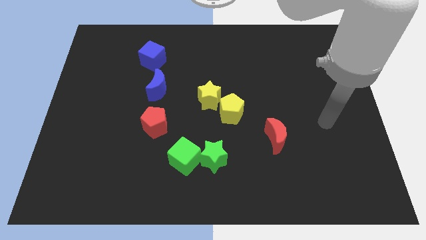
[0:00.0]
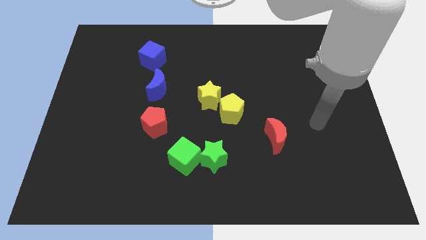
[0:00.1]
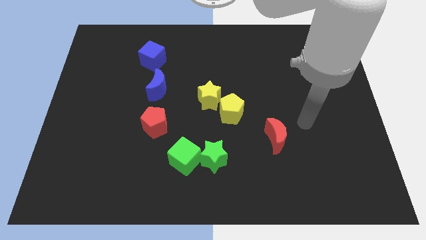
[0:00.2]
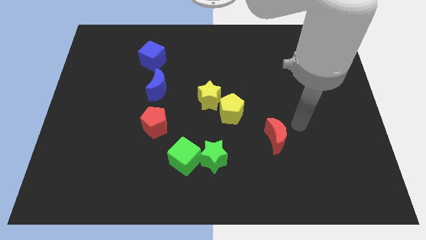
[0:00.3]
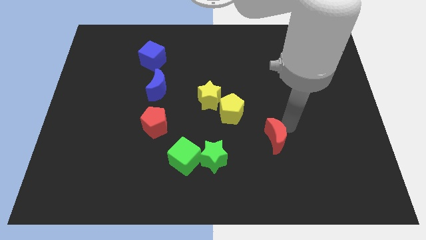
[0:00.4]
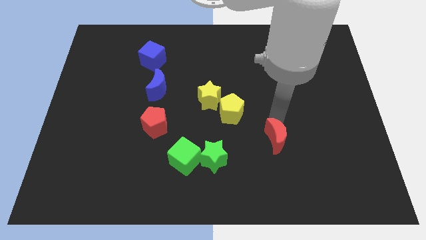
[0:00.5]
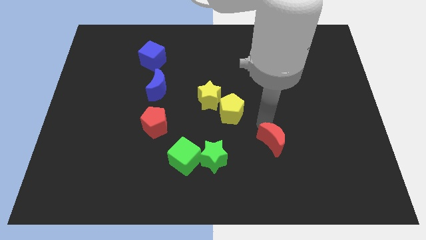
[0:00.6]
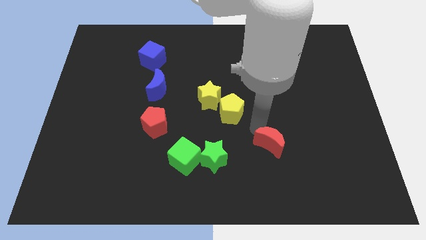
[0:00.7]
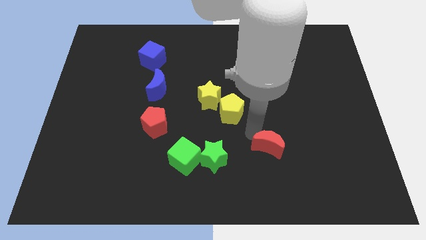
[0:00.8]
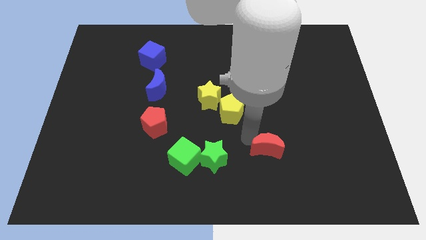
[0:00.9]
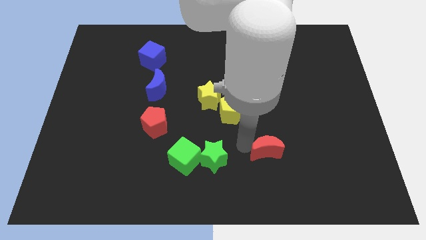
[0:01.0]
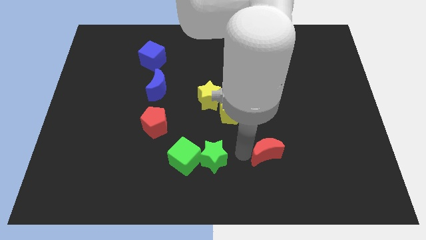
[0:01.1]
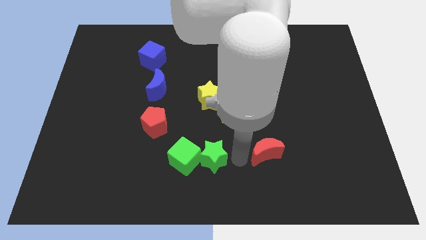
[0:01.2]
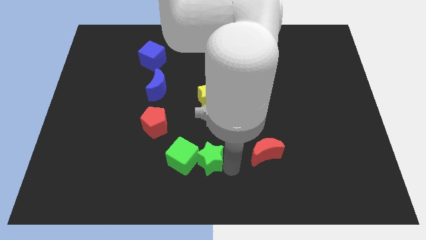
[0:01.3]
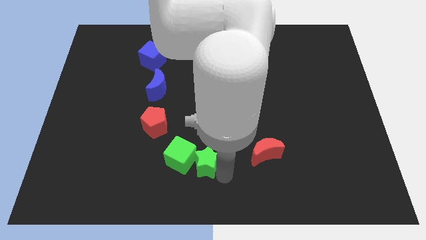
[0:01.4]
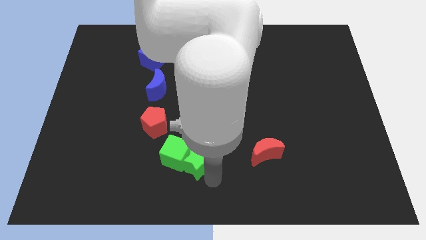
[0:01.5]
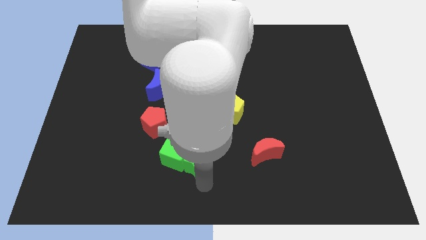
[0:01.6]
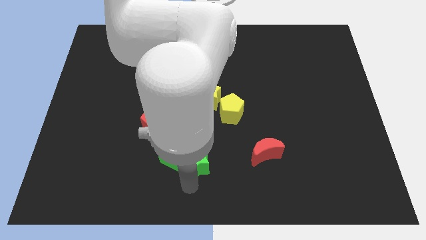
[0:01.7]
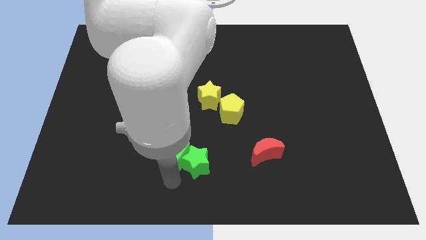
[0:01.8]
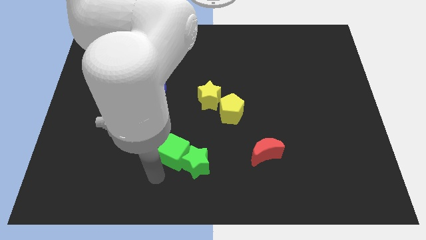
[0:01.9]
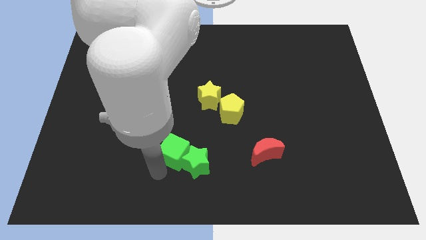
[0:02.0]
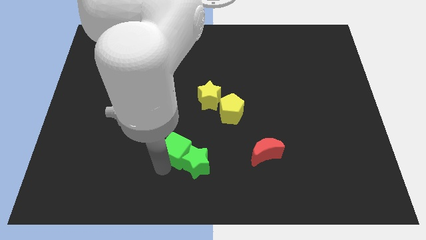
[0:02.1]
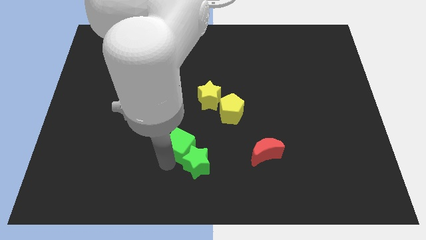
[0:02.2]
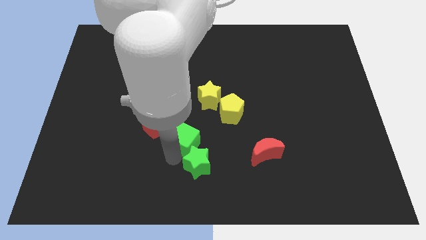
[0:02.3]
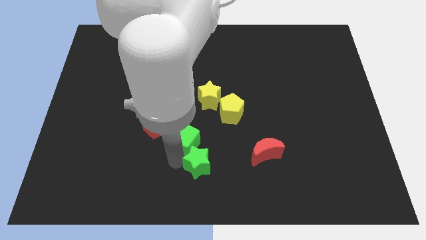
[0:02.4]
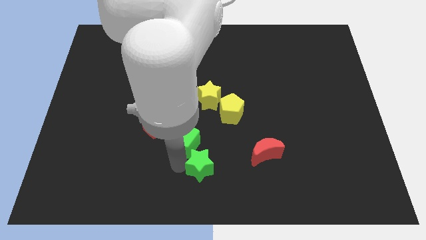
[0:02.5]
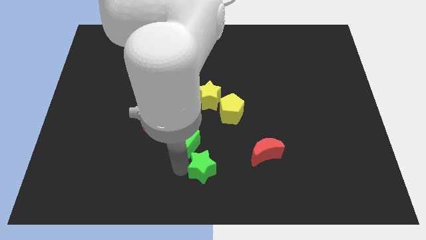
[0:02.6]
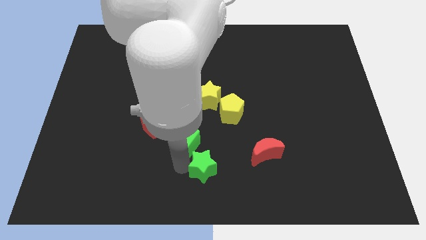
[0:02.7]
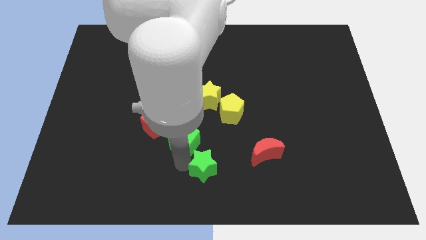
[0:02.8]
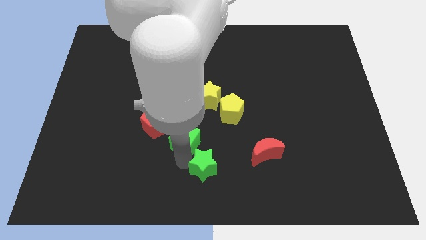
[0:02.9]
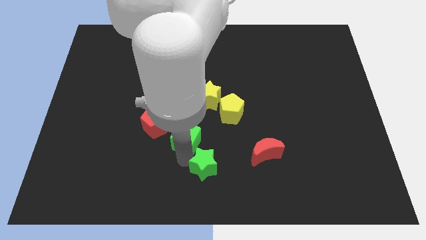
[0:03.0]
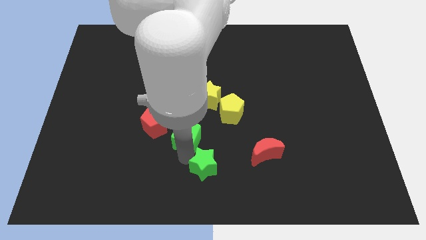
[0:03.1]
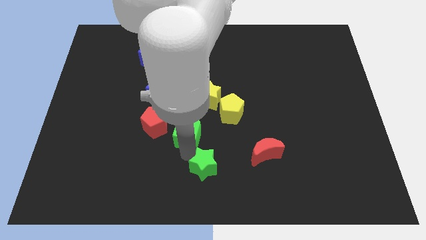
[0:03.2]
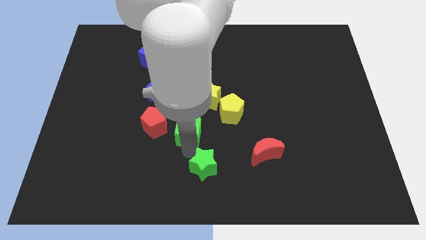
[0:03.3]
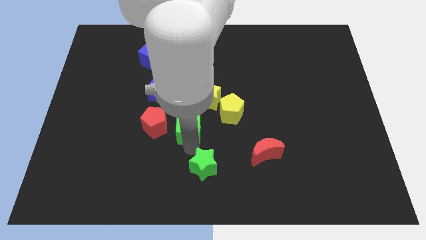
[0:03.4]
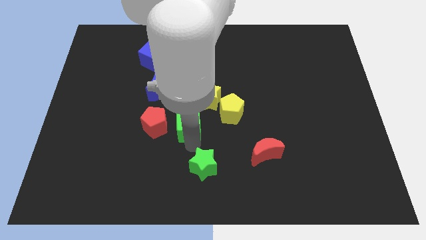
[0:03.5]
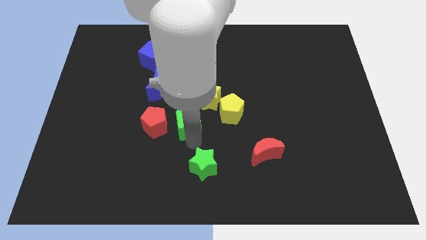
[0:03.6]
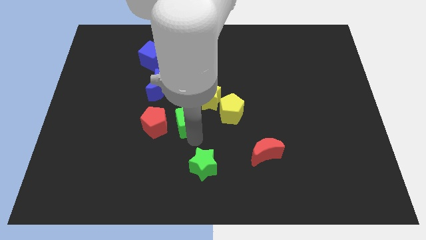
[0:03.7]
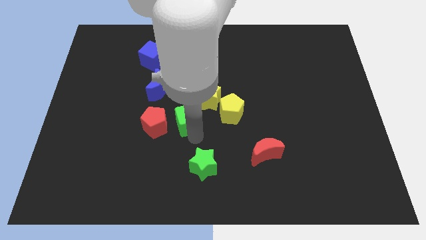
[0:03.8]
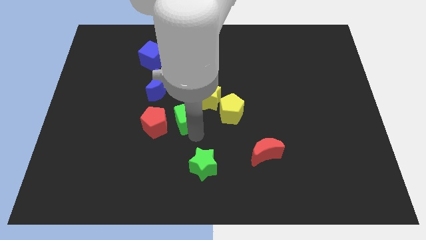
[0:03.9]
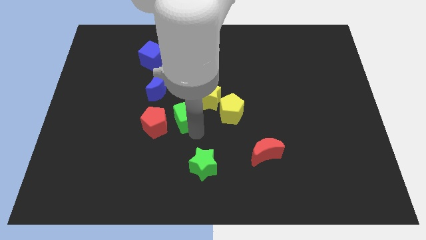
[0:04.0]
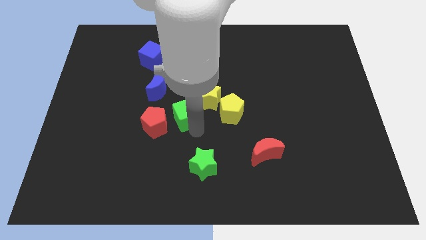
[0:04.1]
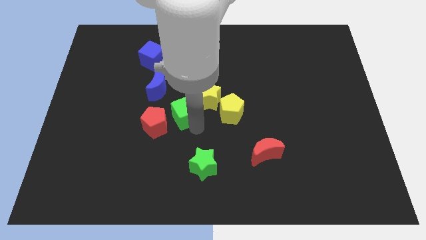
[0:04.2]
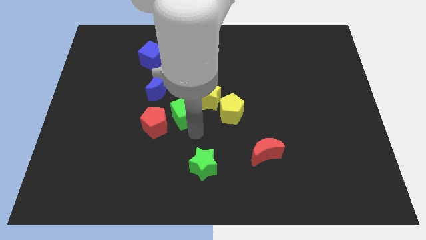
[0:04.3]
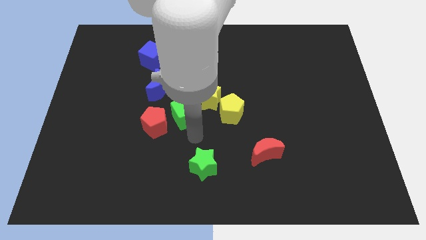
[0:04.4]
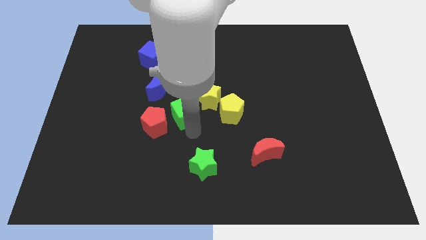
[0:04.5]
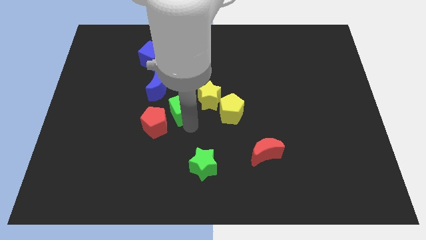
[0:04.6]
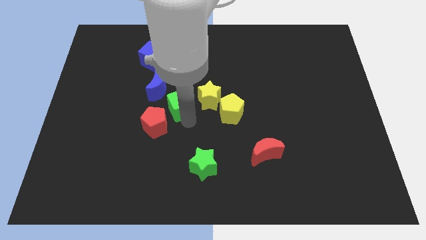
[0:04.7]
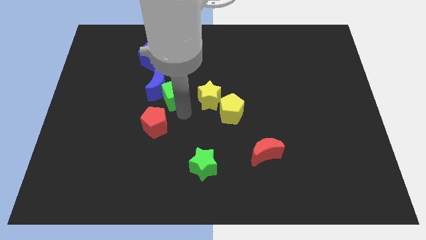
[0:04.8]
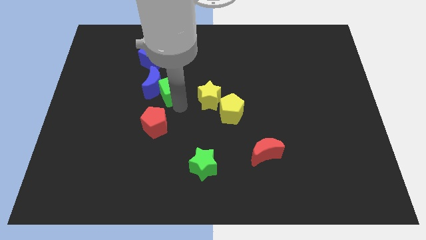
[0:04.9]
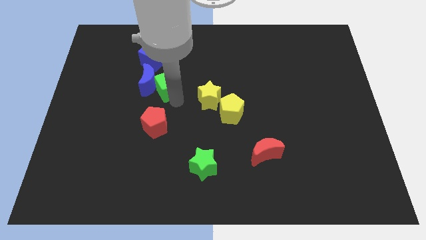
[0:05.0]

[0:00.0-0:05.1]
put the green cube to the bottom right of the blue cube

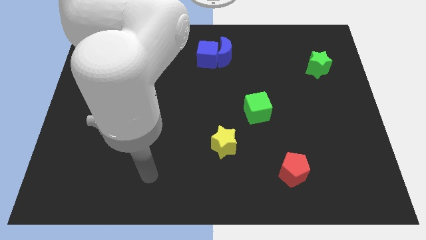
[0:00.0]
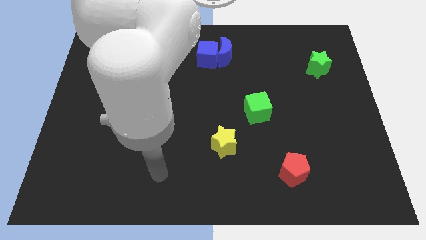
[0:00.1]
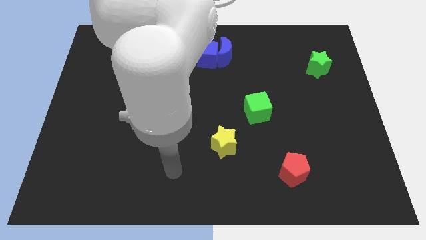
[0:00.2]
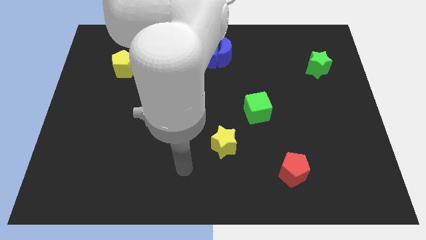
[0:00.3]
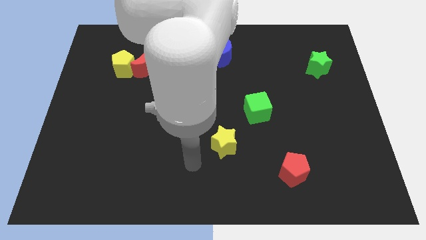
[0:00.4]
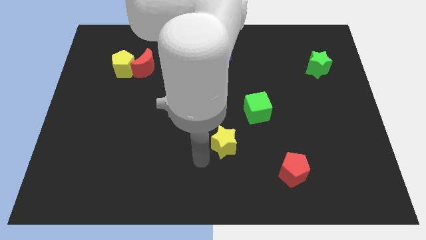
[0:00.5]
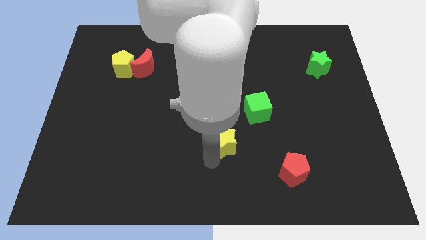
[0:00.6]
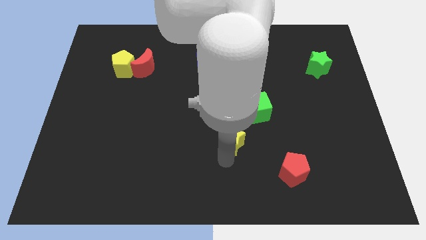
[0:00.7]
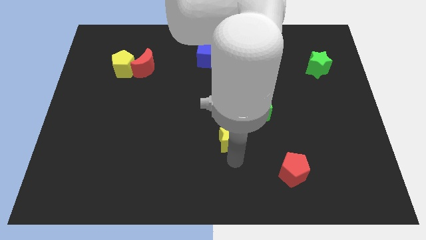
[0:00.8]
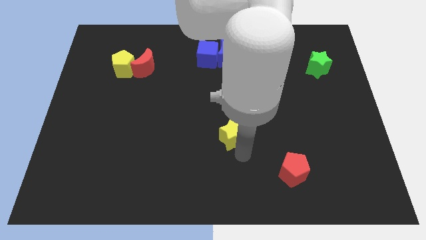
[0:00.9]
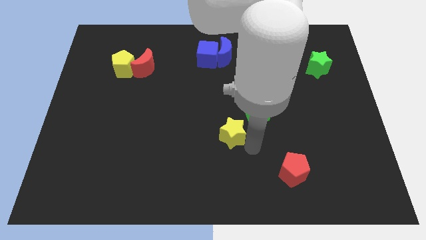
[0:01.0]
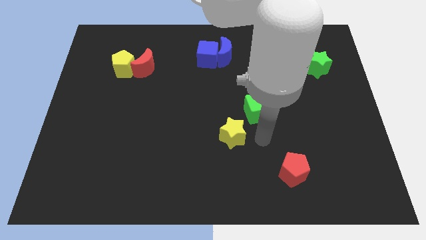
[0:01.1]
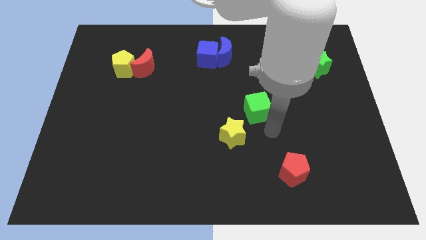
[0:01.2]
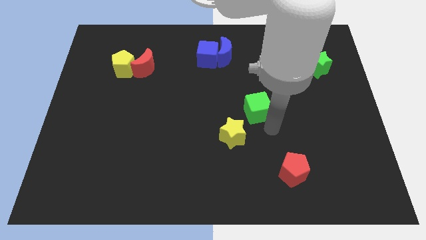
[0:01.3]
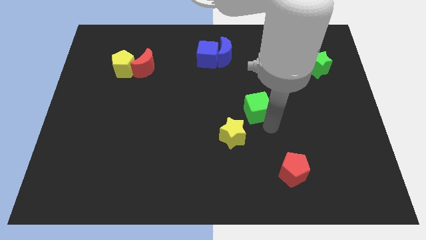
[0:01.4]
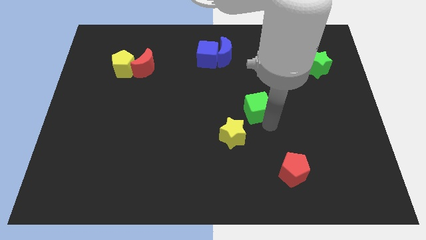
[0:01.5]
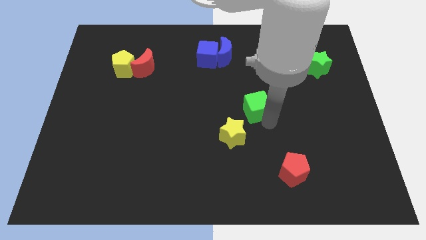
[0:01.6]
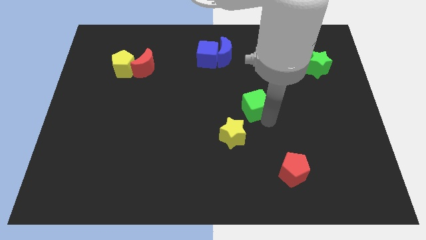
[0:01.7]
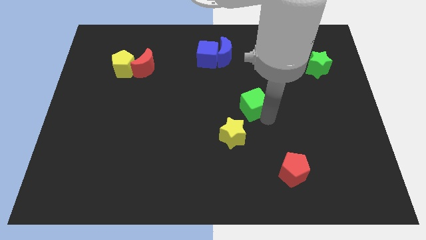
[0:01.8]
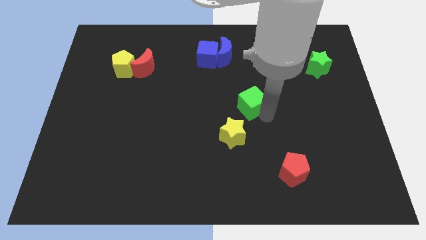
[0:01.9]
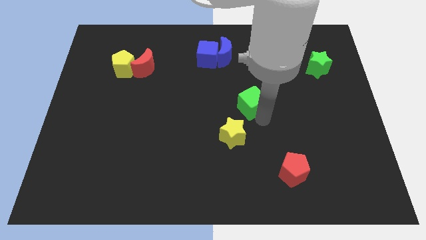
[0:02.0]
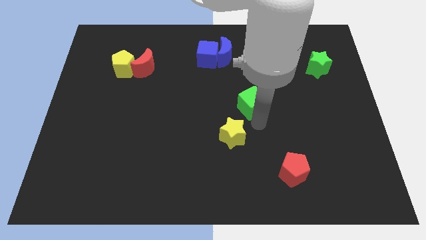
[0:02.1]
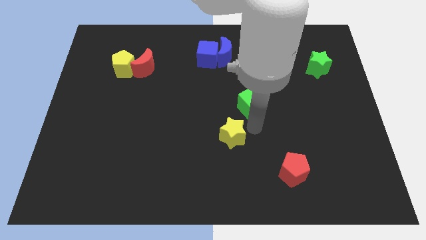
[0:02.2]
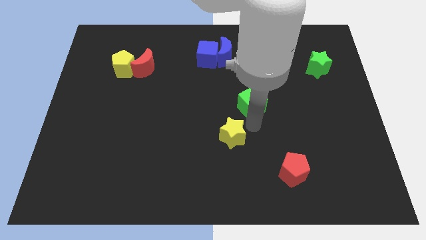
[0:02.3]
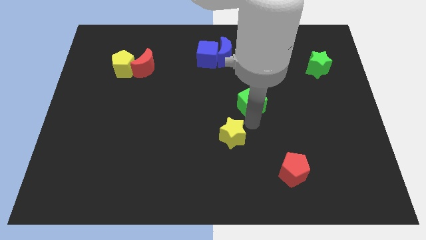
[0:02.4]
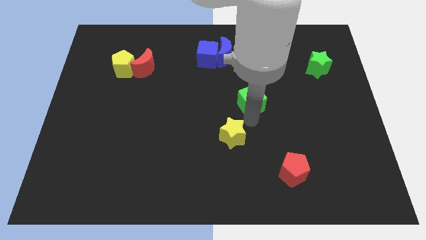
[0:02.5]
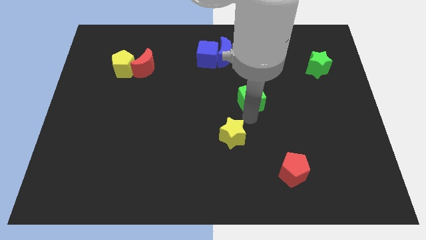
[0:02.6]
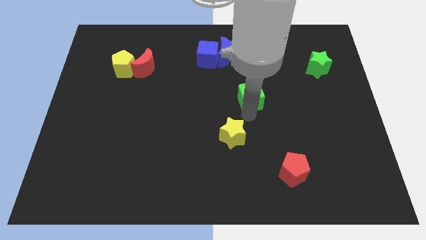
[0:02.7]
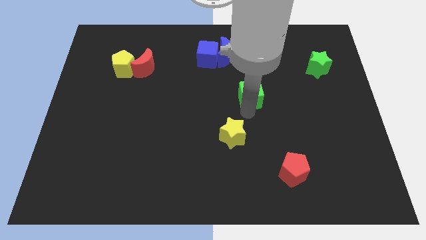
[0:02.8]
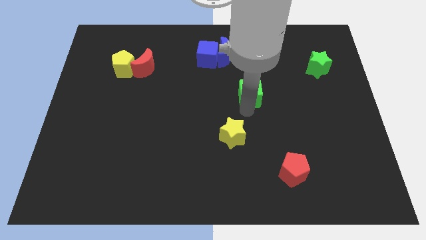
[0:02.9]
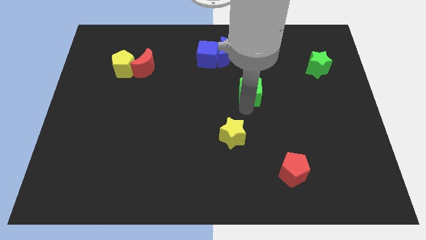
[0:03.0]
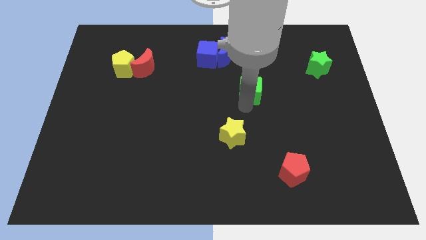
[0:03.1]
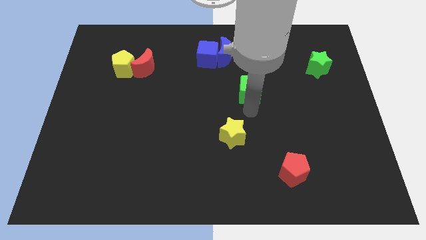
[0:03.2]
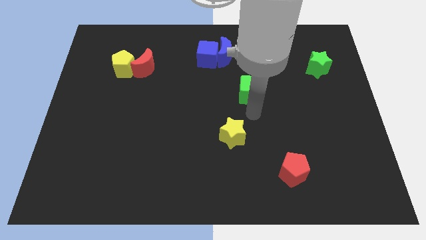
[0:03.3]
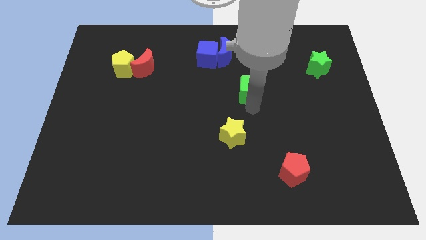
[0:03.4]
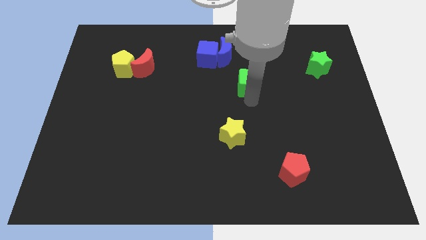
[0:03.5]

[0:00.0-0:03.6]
push the green cube diagonally down and to the right of the blue moon
